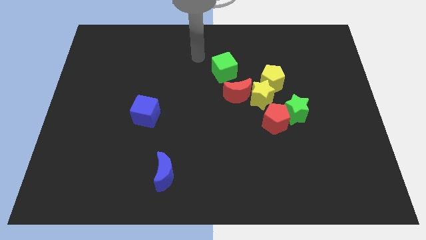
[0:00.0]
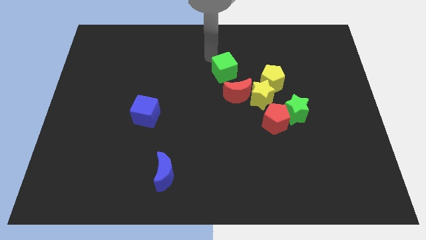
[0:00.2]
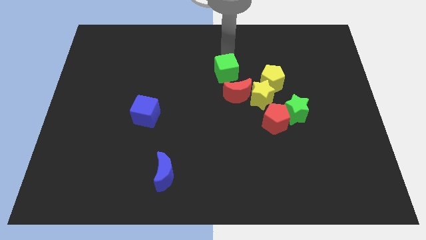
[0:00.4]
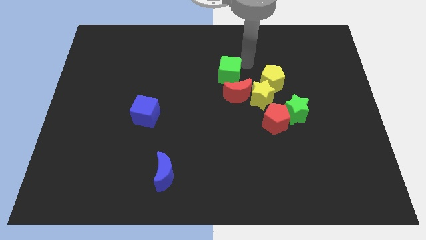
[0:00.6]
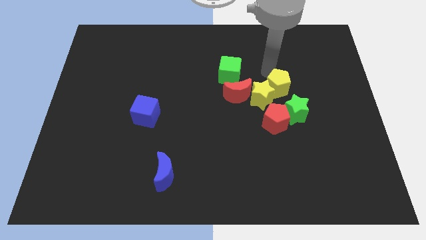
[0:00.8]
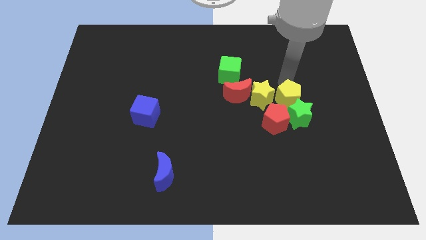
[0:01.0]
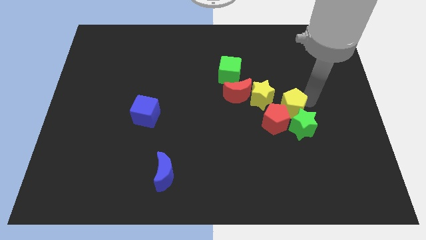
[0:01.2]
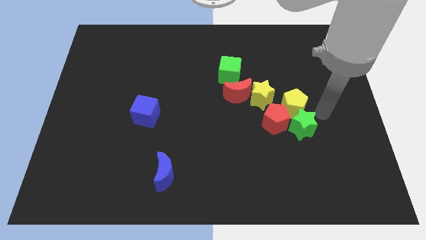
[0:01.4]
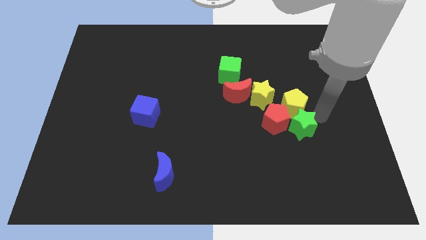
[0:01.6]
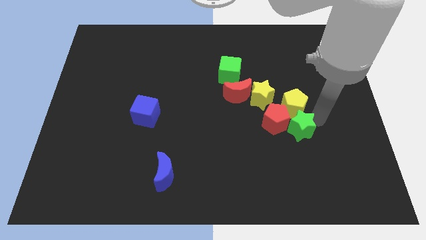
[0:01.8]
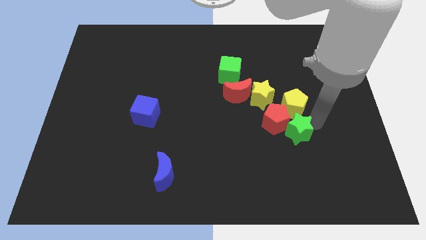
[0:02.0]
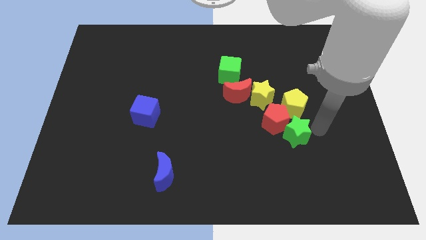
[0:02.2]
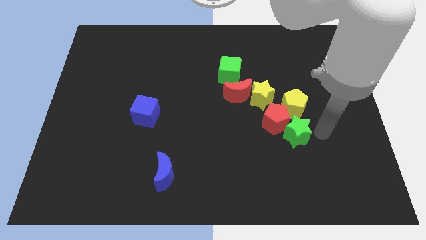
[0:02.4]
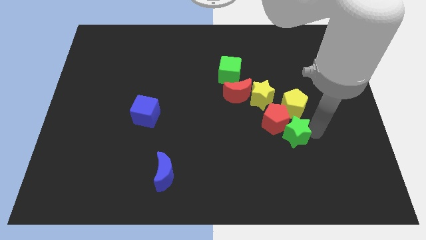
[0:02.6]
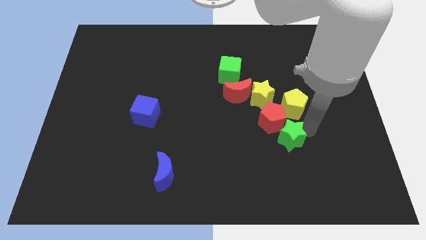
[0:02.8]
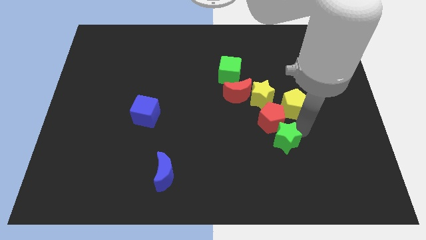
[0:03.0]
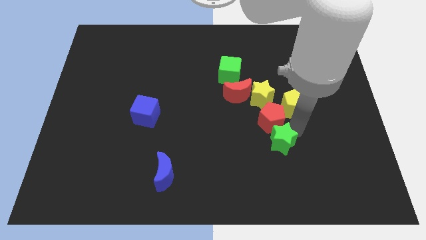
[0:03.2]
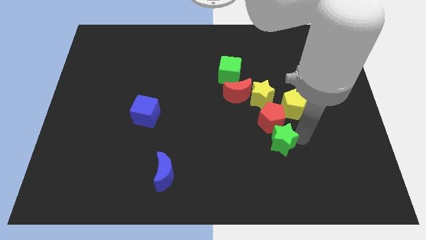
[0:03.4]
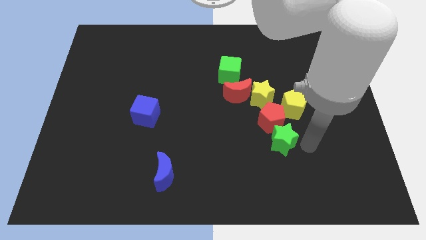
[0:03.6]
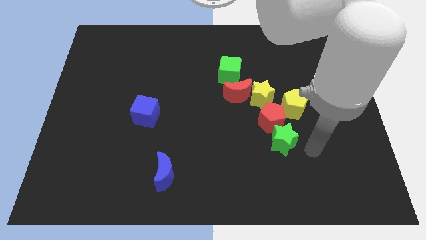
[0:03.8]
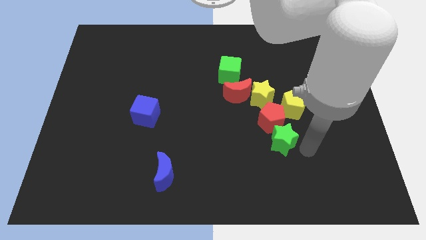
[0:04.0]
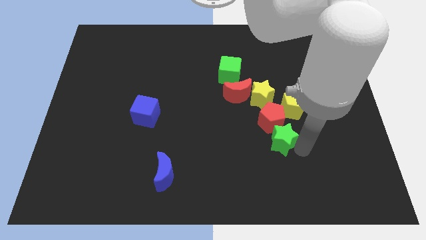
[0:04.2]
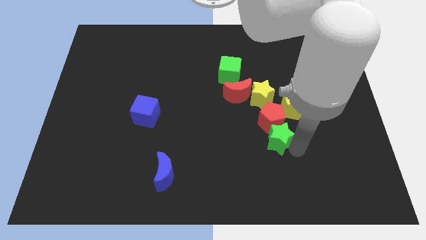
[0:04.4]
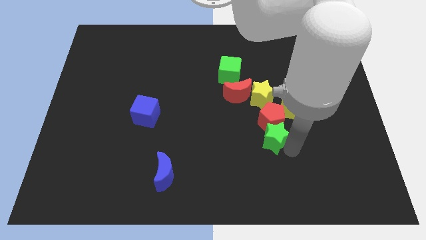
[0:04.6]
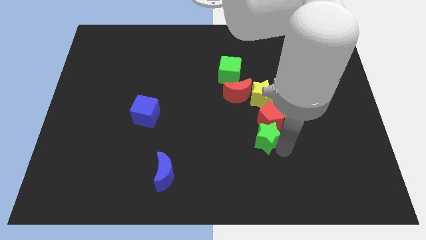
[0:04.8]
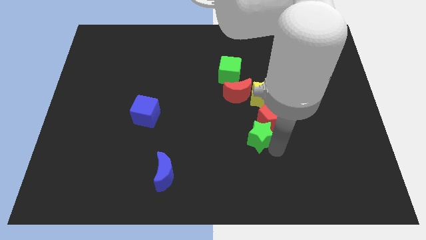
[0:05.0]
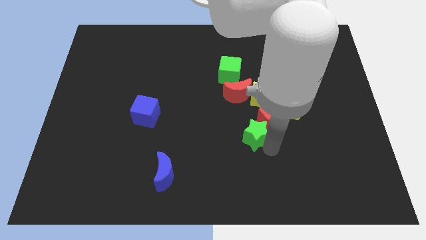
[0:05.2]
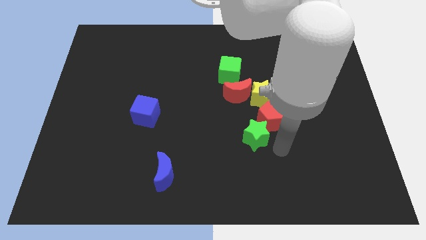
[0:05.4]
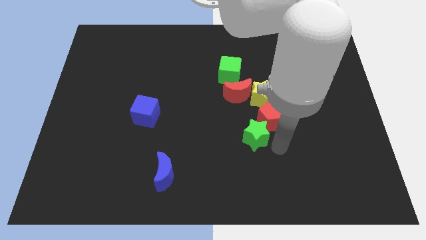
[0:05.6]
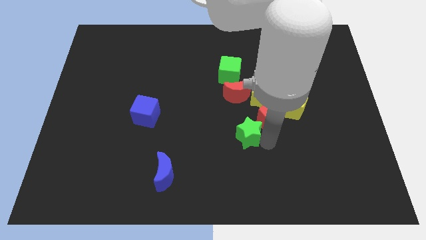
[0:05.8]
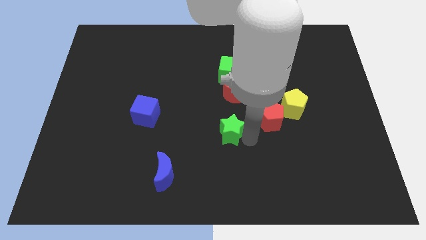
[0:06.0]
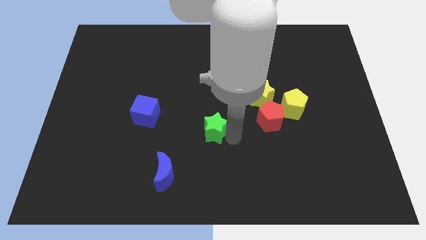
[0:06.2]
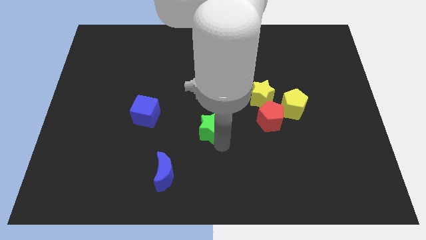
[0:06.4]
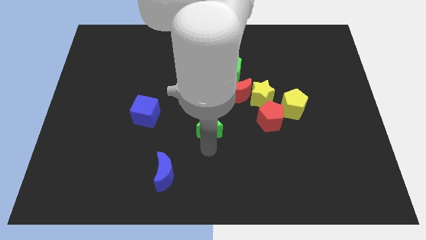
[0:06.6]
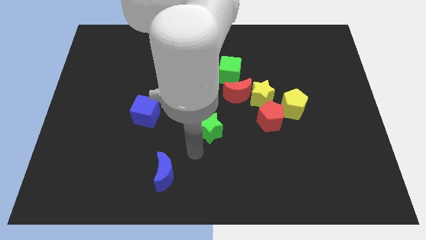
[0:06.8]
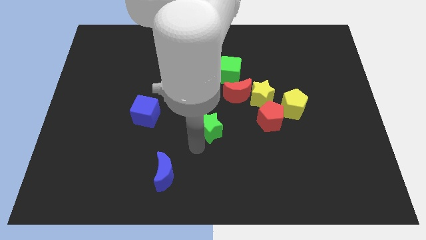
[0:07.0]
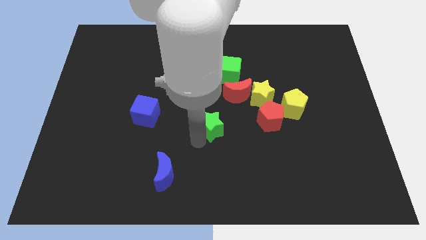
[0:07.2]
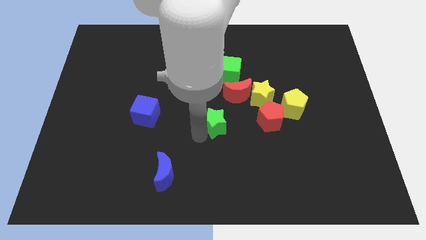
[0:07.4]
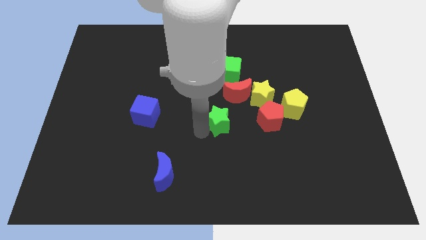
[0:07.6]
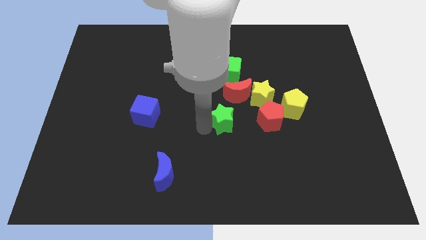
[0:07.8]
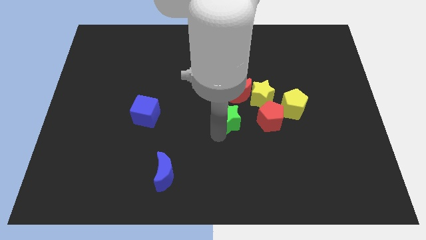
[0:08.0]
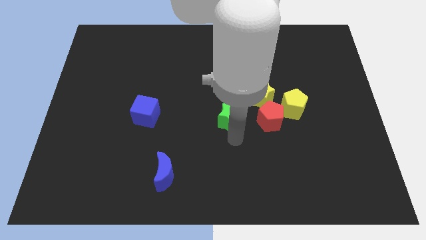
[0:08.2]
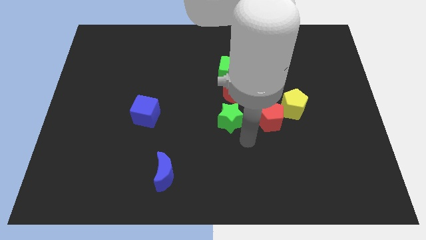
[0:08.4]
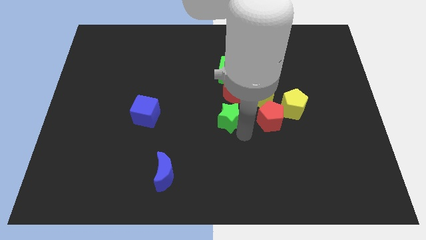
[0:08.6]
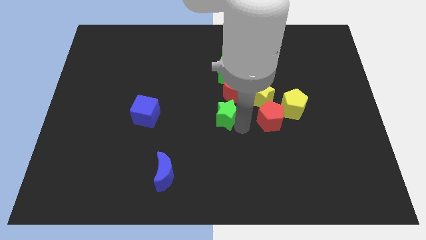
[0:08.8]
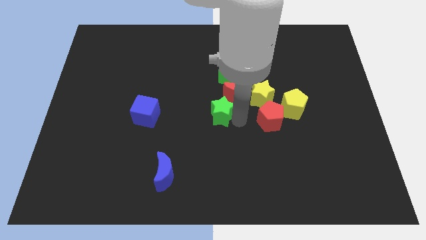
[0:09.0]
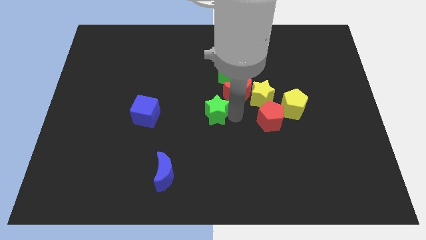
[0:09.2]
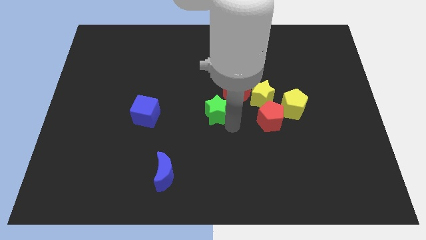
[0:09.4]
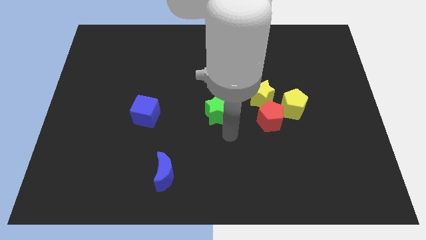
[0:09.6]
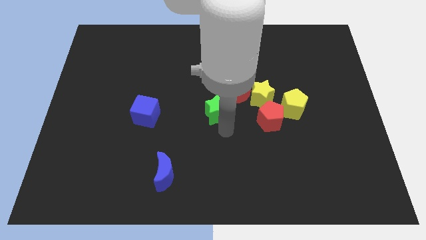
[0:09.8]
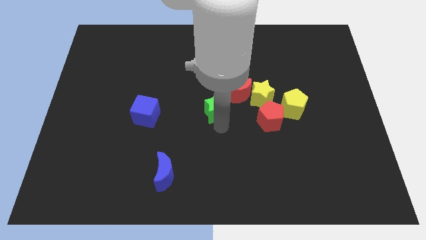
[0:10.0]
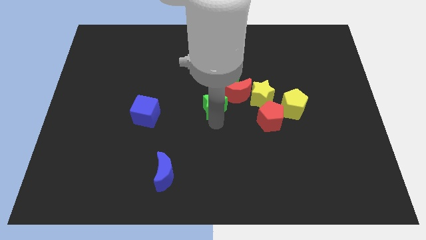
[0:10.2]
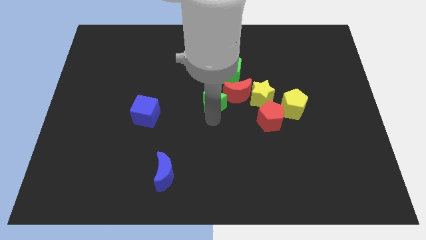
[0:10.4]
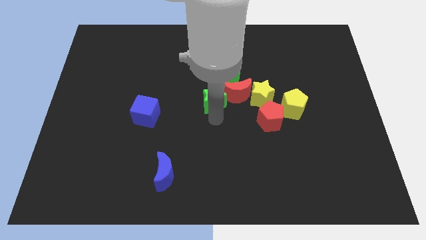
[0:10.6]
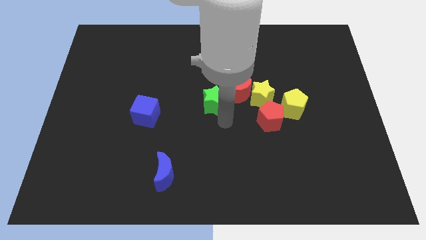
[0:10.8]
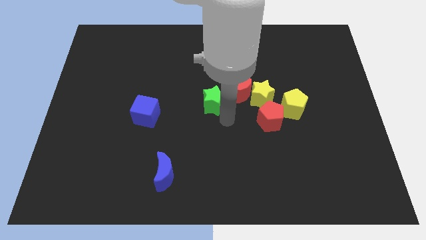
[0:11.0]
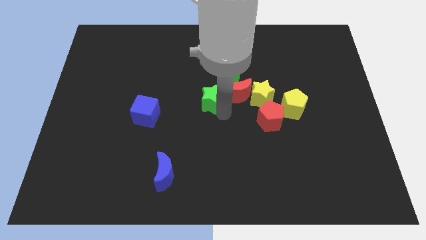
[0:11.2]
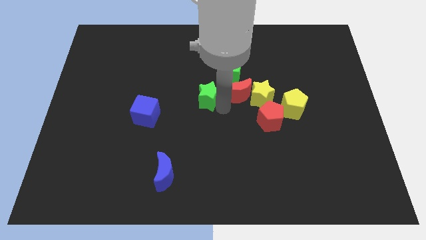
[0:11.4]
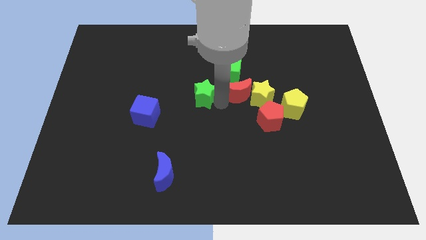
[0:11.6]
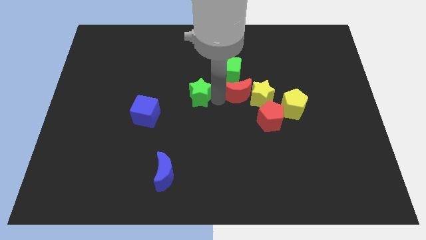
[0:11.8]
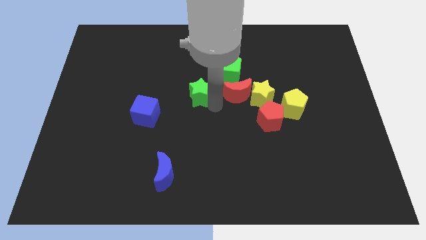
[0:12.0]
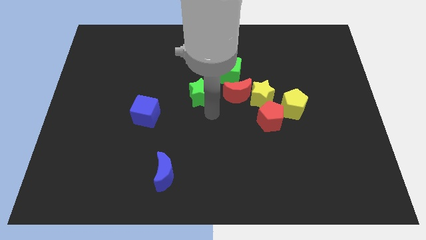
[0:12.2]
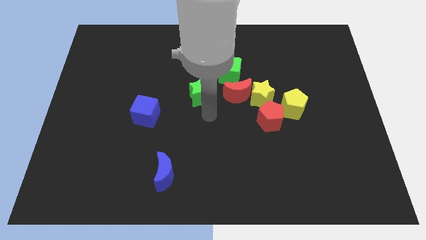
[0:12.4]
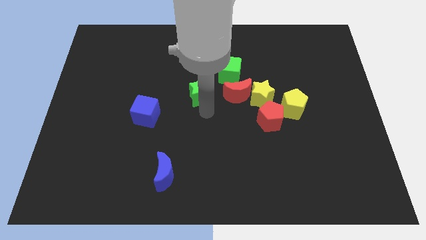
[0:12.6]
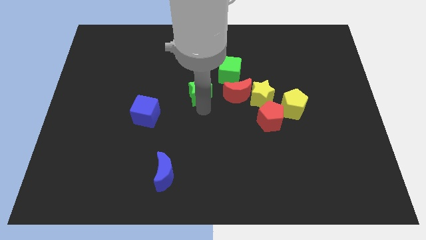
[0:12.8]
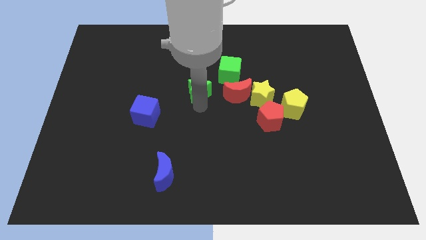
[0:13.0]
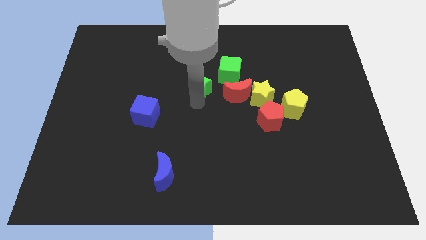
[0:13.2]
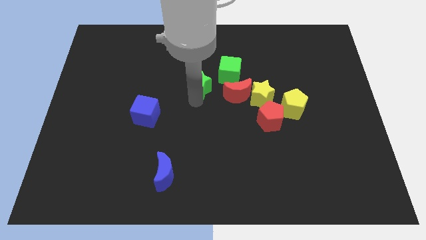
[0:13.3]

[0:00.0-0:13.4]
move the green star just left of the green cube

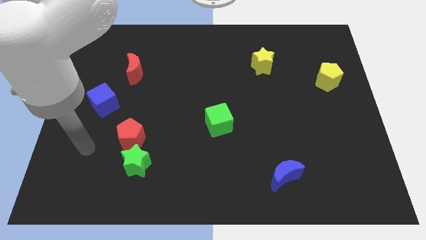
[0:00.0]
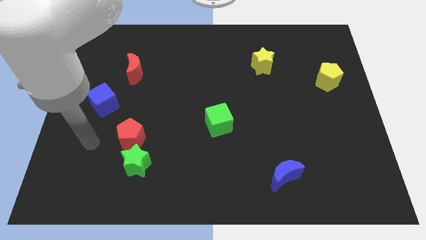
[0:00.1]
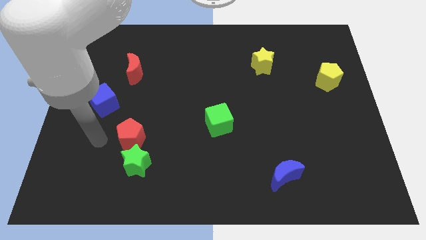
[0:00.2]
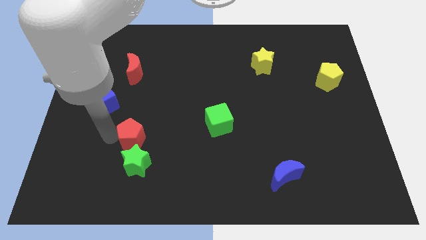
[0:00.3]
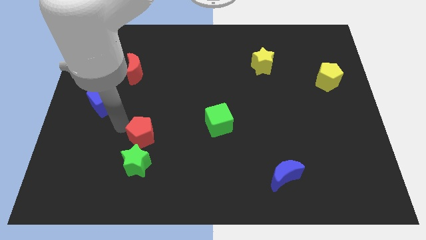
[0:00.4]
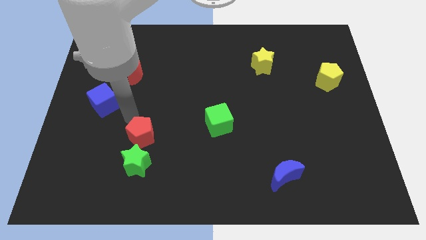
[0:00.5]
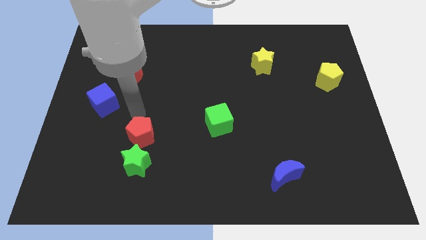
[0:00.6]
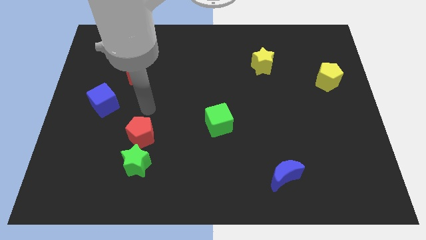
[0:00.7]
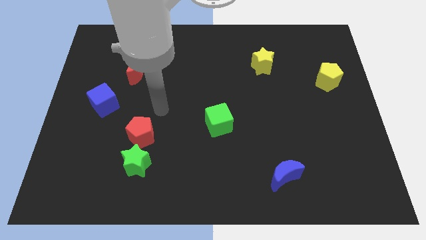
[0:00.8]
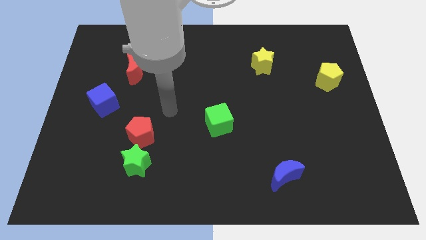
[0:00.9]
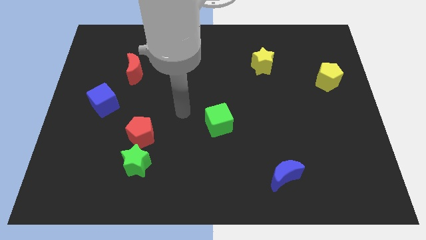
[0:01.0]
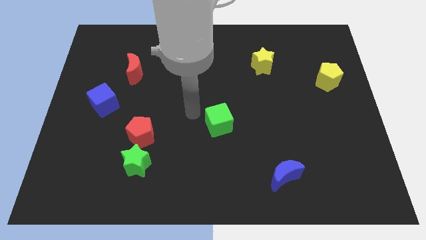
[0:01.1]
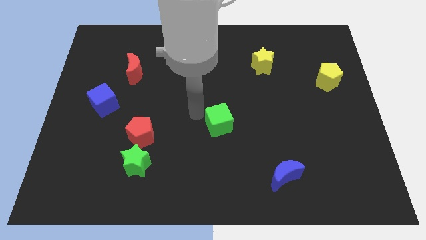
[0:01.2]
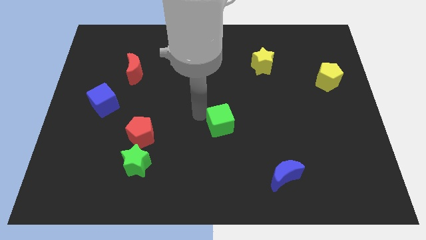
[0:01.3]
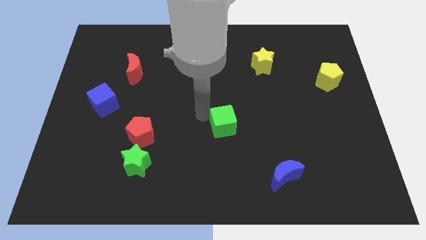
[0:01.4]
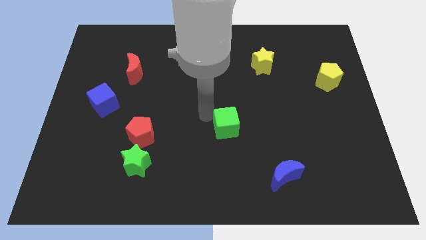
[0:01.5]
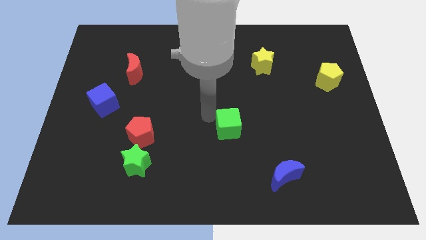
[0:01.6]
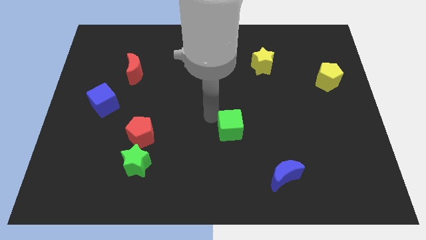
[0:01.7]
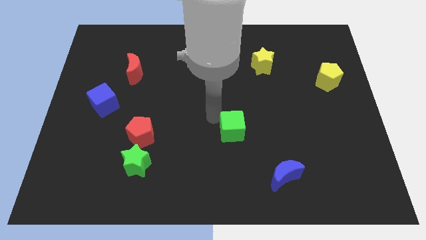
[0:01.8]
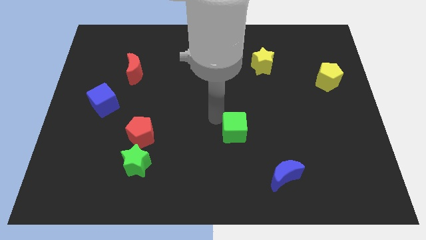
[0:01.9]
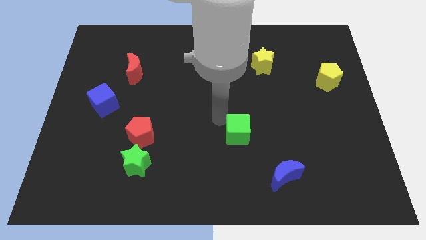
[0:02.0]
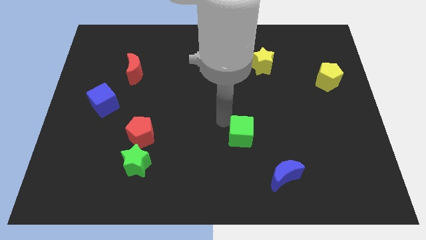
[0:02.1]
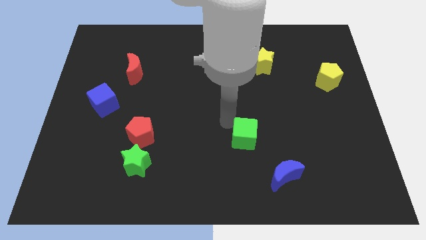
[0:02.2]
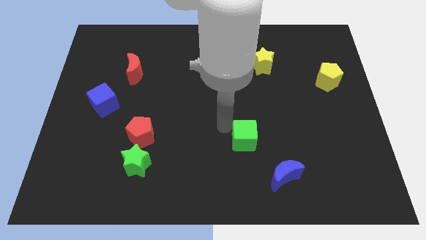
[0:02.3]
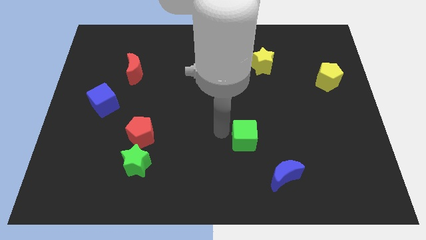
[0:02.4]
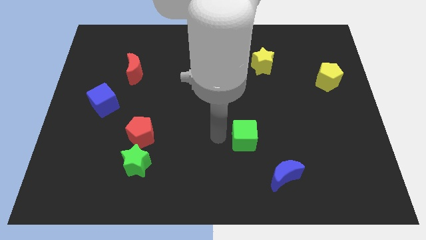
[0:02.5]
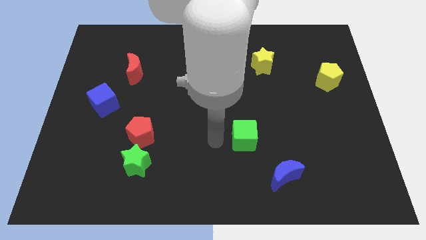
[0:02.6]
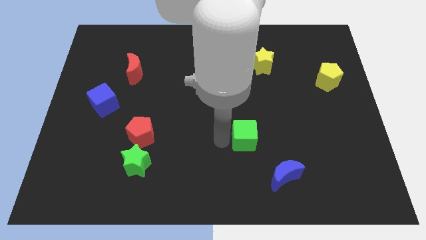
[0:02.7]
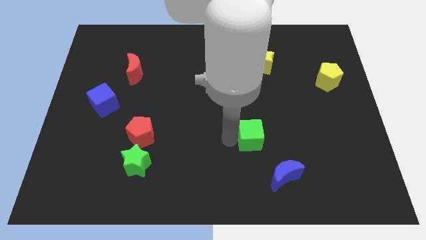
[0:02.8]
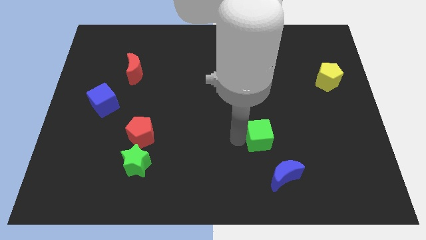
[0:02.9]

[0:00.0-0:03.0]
put the green cube above the blue moon
